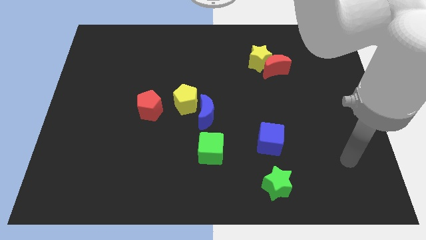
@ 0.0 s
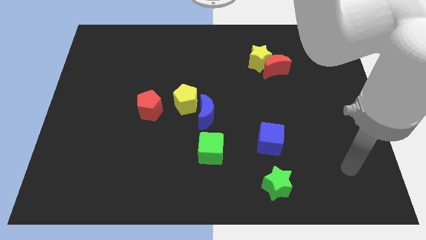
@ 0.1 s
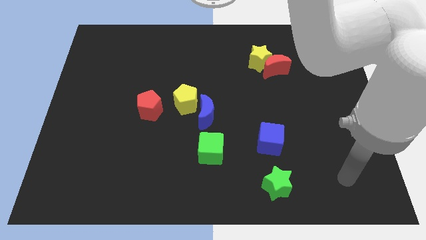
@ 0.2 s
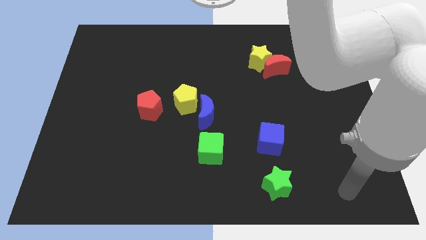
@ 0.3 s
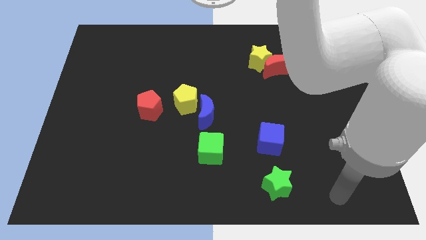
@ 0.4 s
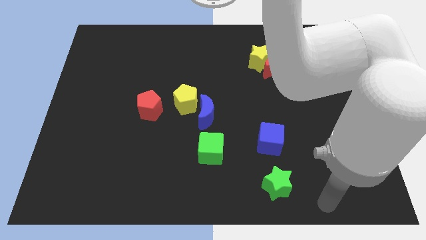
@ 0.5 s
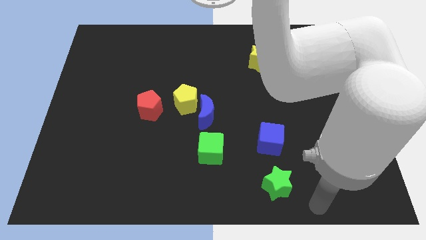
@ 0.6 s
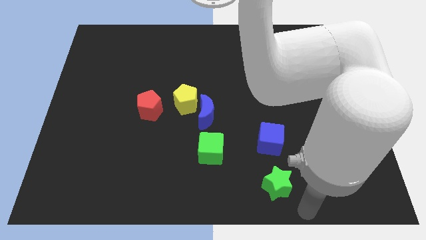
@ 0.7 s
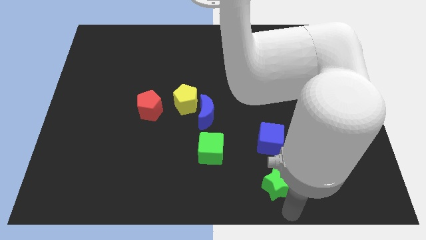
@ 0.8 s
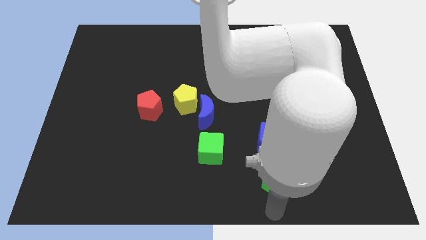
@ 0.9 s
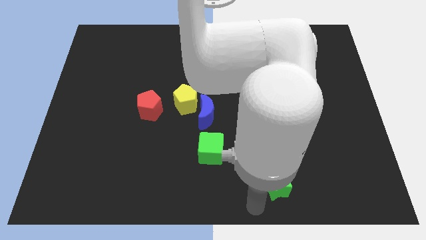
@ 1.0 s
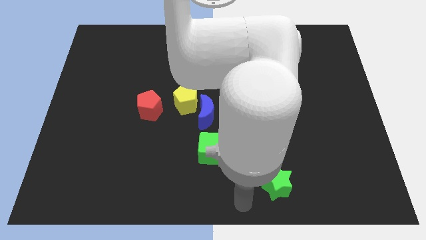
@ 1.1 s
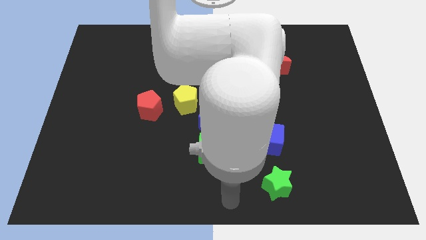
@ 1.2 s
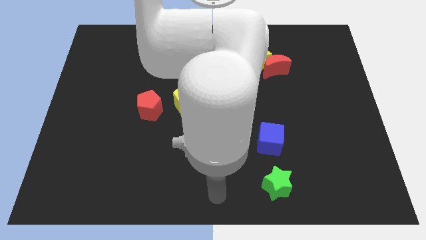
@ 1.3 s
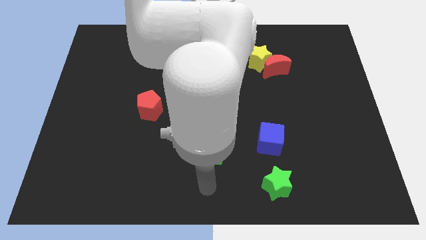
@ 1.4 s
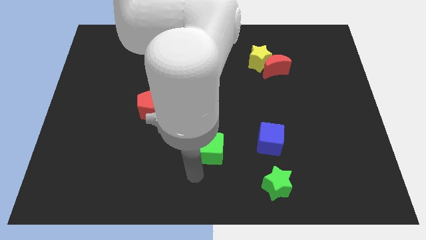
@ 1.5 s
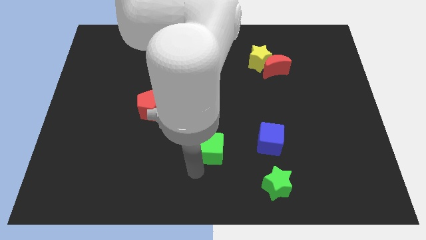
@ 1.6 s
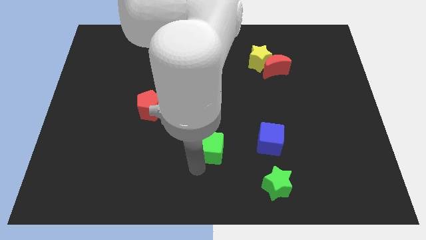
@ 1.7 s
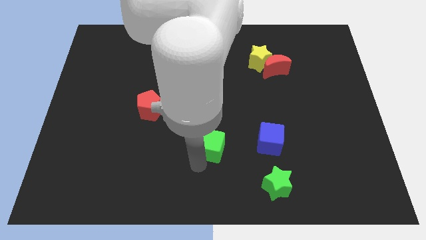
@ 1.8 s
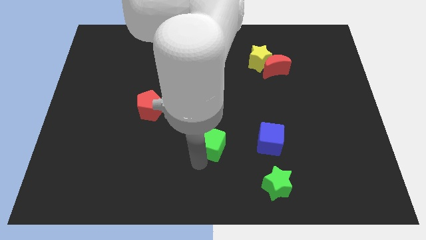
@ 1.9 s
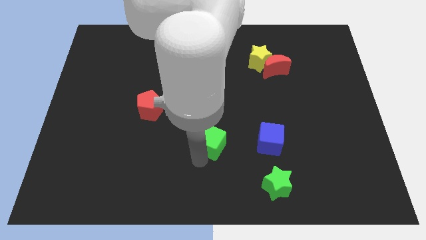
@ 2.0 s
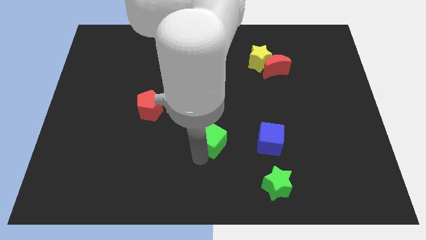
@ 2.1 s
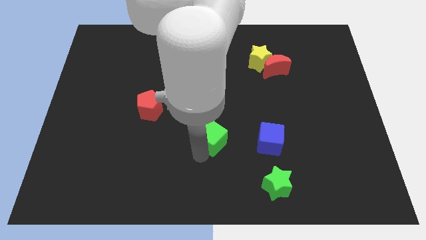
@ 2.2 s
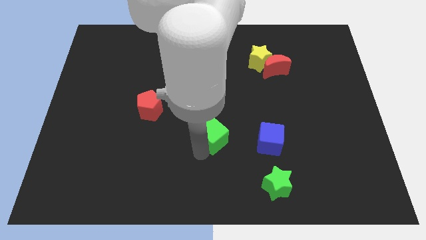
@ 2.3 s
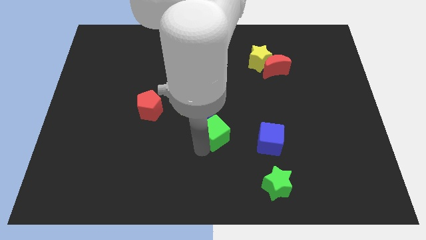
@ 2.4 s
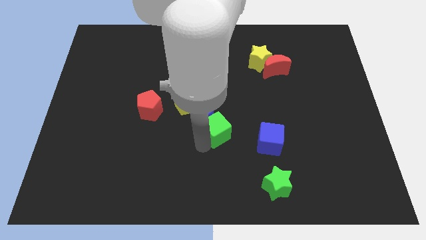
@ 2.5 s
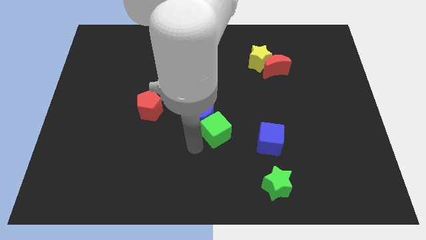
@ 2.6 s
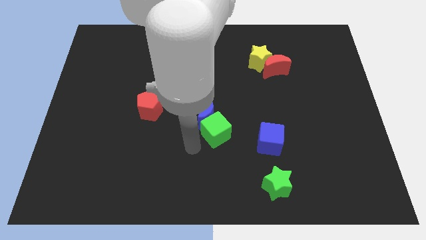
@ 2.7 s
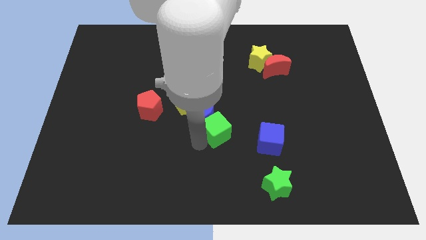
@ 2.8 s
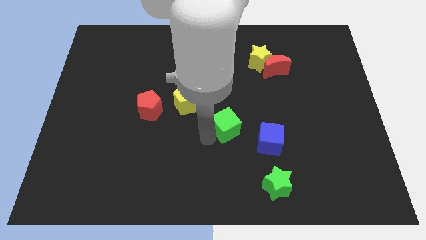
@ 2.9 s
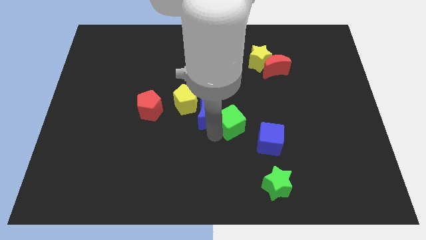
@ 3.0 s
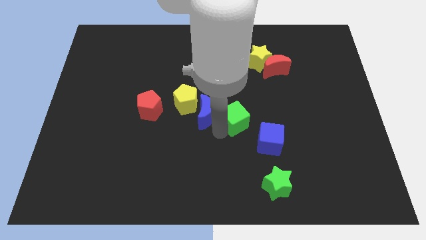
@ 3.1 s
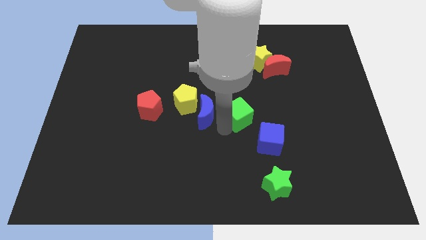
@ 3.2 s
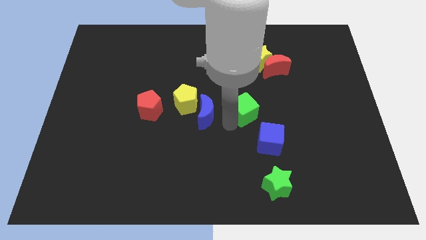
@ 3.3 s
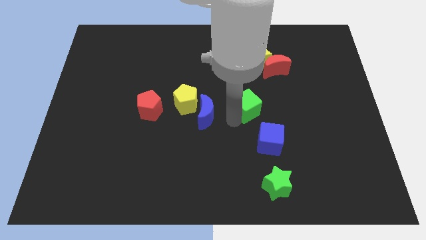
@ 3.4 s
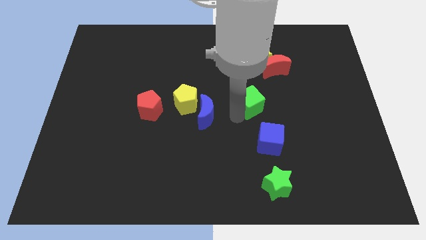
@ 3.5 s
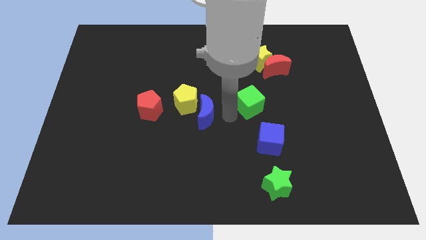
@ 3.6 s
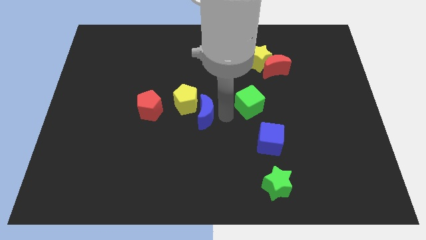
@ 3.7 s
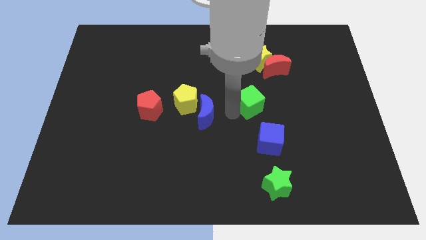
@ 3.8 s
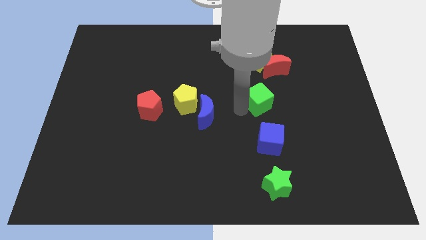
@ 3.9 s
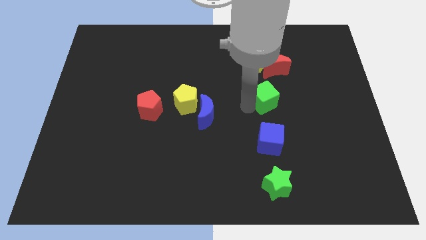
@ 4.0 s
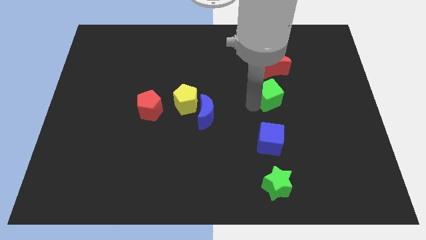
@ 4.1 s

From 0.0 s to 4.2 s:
push the green cube up and then to the right

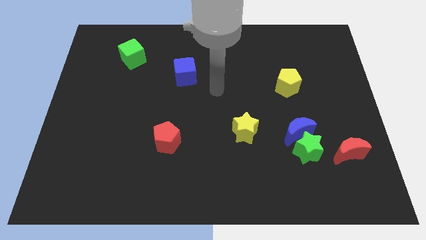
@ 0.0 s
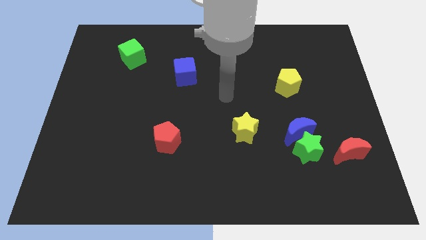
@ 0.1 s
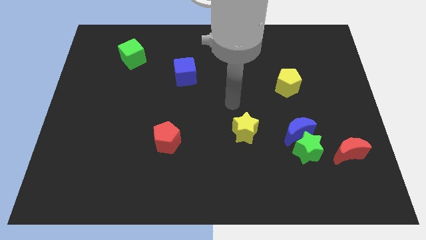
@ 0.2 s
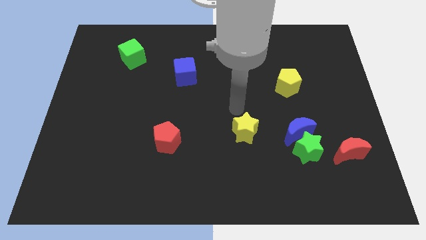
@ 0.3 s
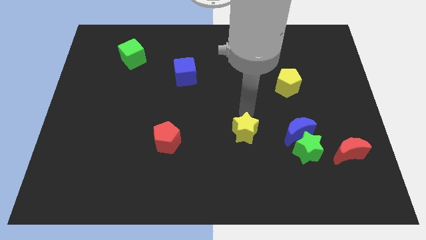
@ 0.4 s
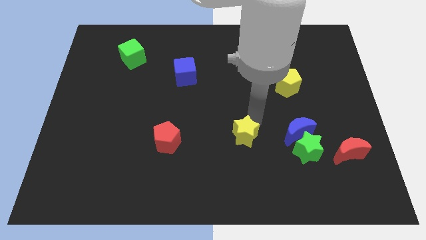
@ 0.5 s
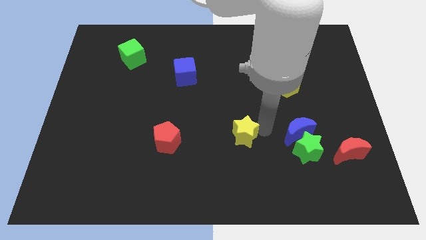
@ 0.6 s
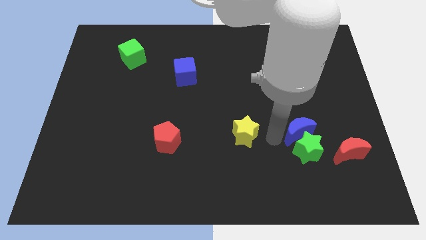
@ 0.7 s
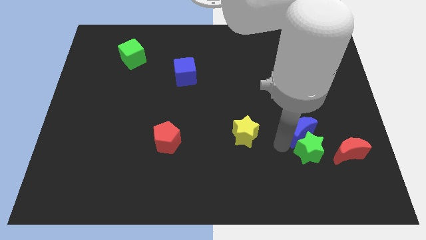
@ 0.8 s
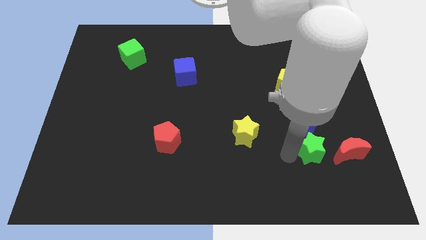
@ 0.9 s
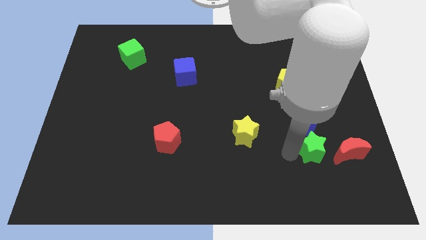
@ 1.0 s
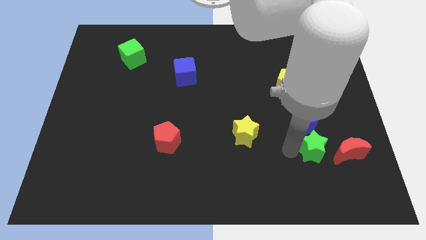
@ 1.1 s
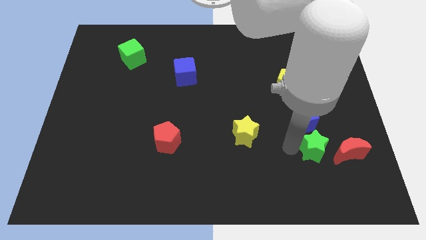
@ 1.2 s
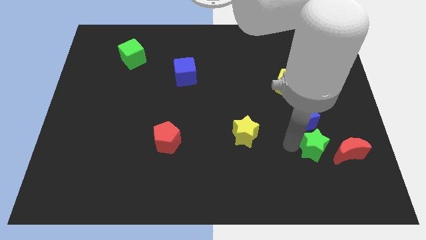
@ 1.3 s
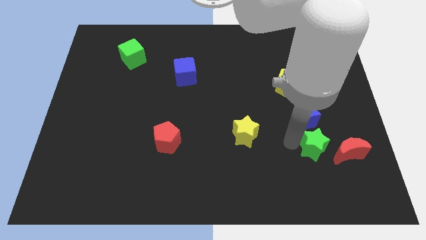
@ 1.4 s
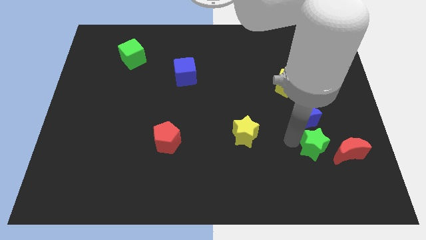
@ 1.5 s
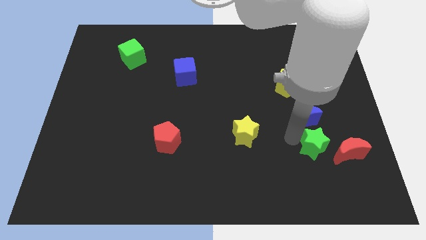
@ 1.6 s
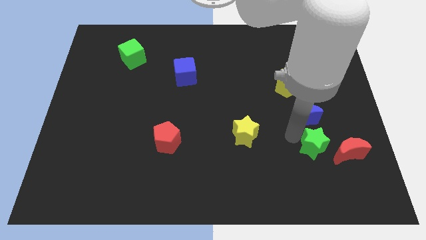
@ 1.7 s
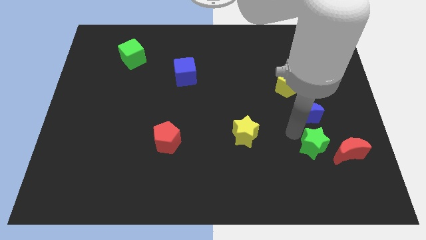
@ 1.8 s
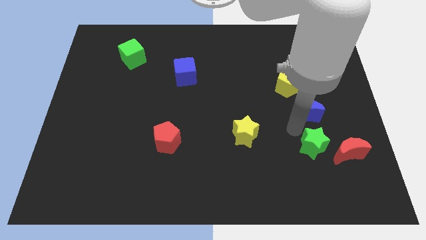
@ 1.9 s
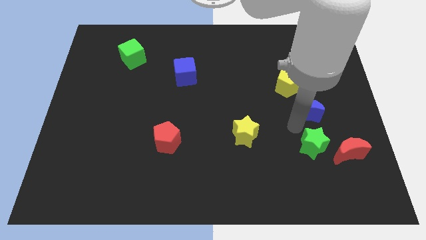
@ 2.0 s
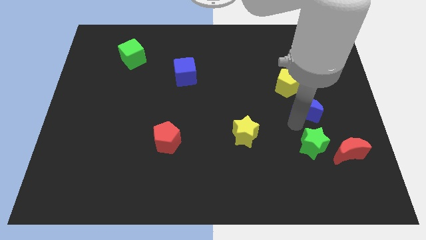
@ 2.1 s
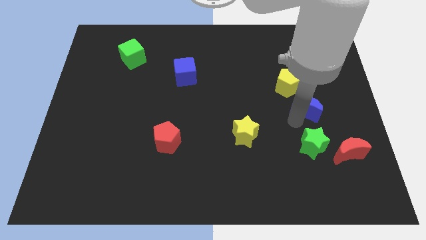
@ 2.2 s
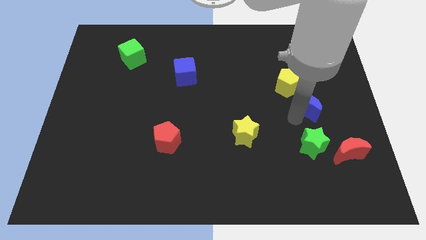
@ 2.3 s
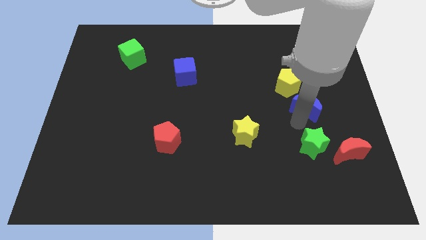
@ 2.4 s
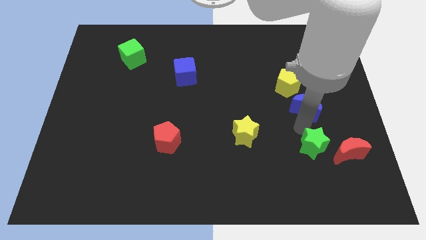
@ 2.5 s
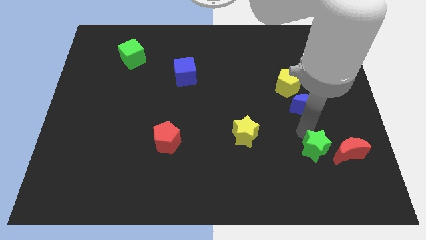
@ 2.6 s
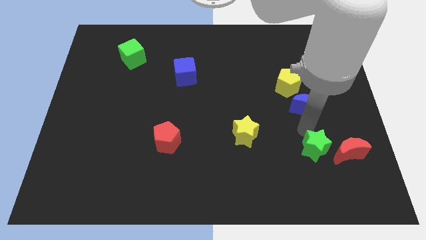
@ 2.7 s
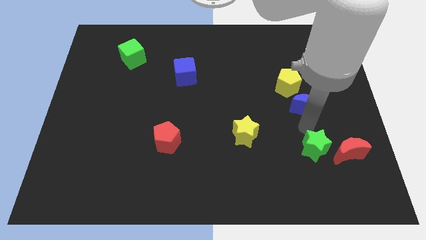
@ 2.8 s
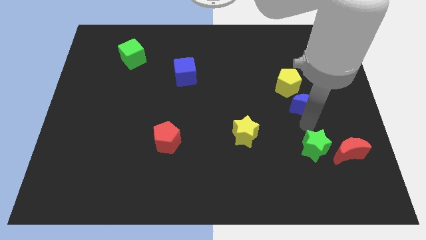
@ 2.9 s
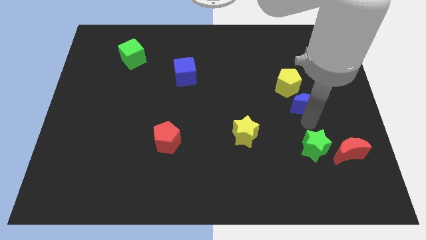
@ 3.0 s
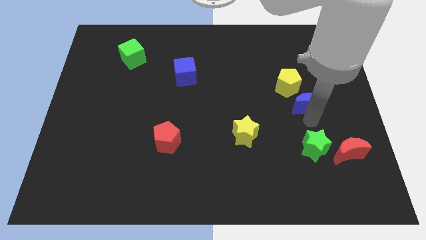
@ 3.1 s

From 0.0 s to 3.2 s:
slightly push the blue moon upwards

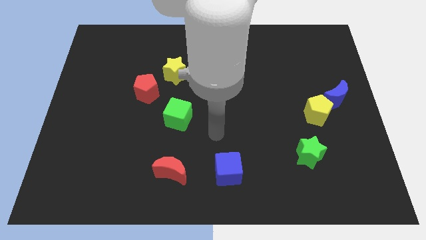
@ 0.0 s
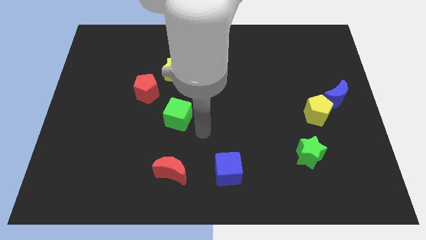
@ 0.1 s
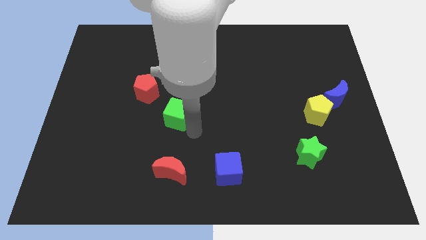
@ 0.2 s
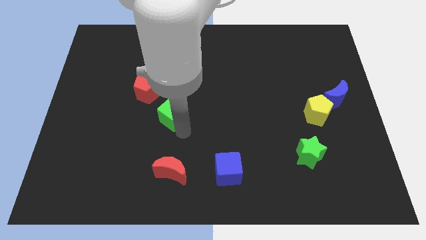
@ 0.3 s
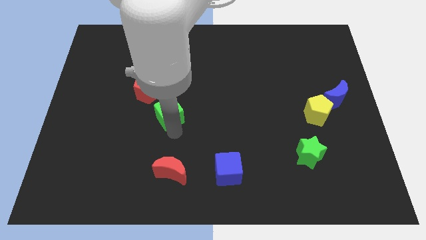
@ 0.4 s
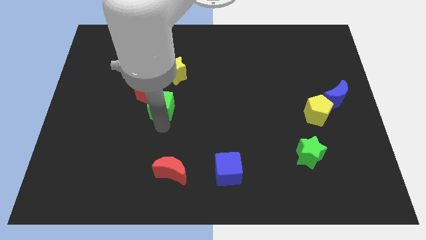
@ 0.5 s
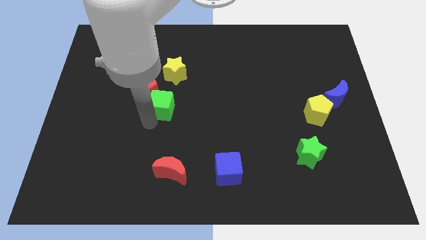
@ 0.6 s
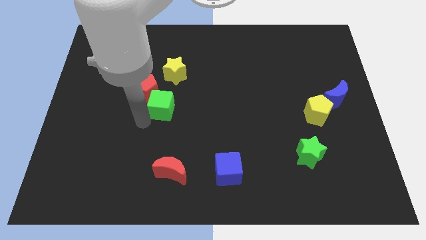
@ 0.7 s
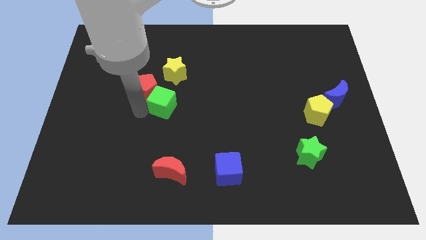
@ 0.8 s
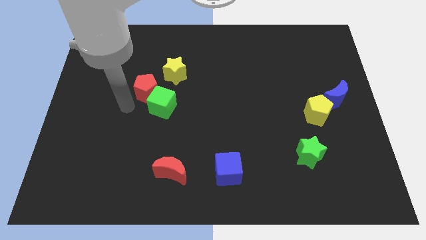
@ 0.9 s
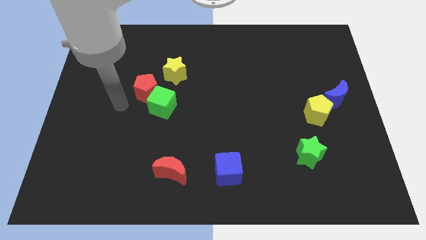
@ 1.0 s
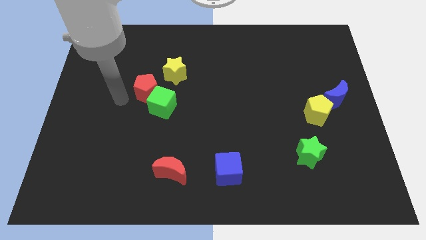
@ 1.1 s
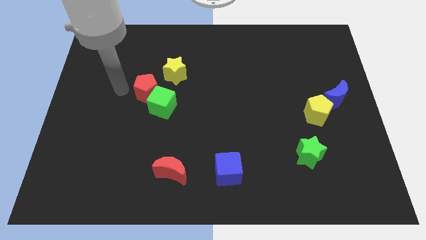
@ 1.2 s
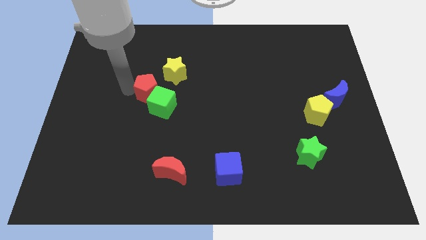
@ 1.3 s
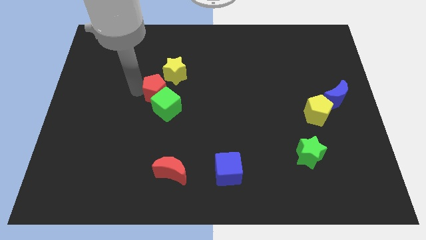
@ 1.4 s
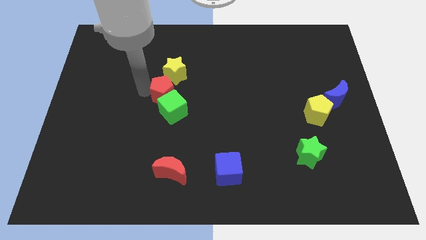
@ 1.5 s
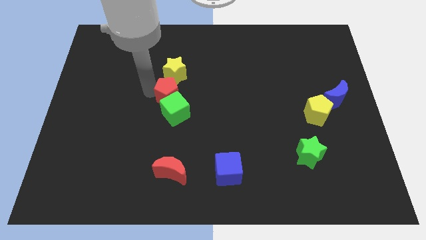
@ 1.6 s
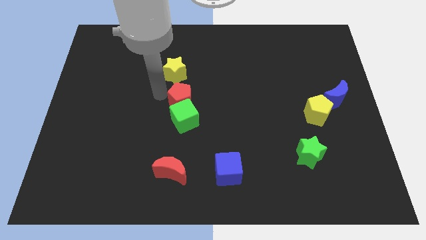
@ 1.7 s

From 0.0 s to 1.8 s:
slightly push the red pentagon right
